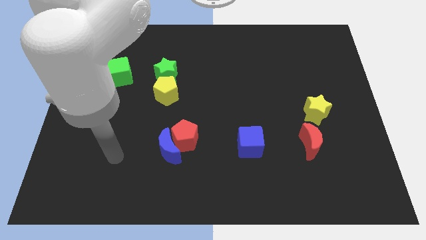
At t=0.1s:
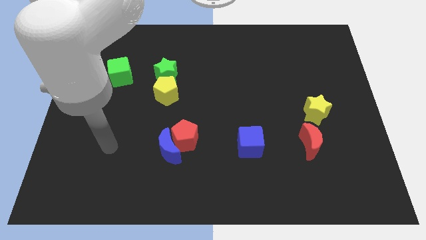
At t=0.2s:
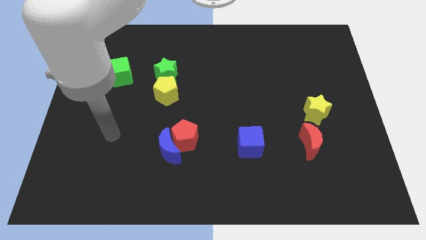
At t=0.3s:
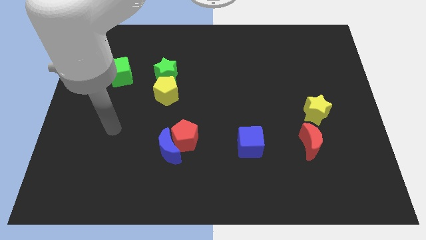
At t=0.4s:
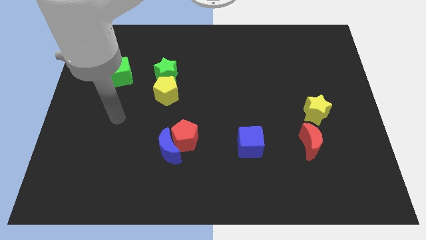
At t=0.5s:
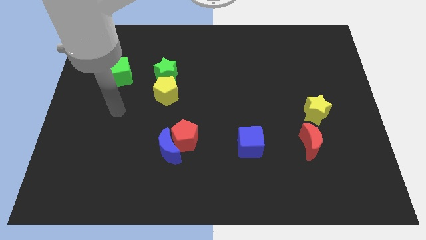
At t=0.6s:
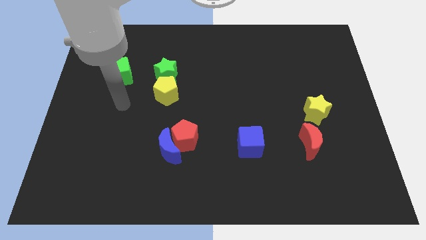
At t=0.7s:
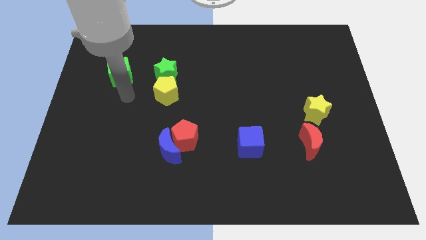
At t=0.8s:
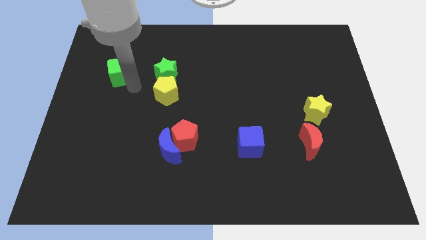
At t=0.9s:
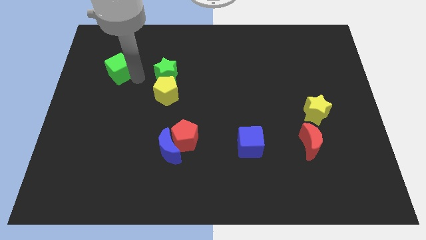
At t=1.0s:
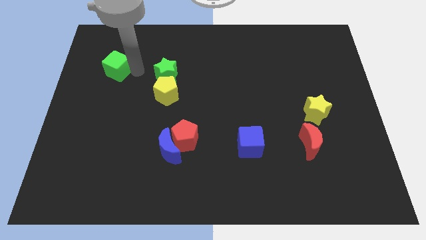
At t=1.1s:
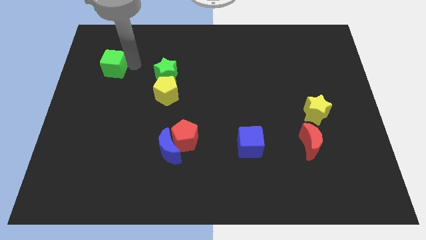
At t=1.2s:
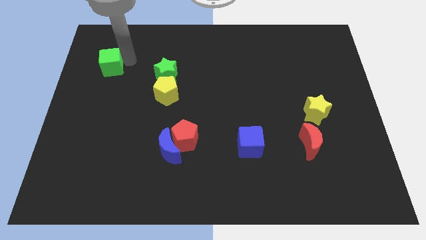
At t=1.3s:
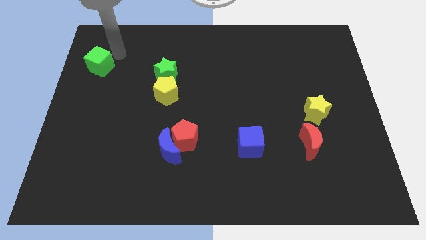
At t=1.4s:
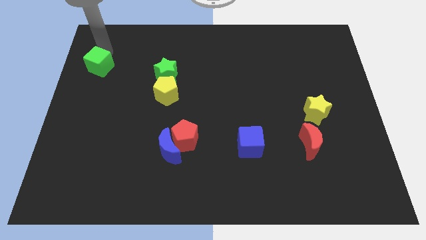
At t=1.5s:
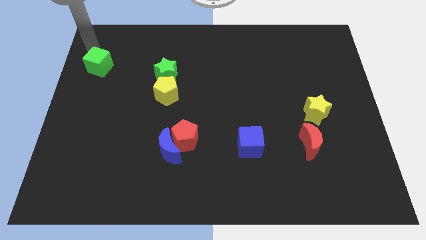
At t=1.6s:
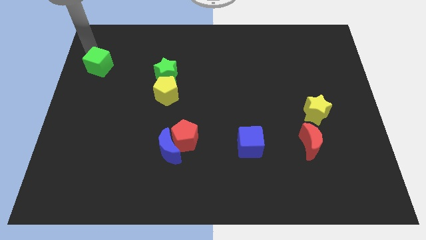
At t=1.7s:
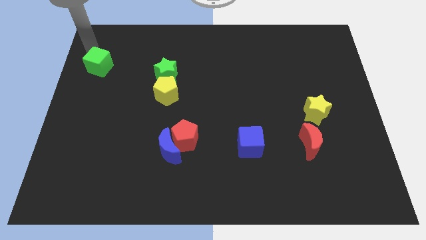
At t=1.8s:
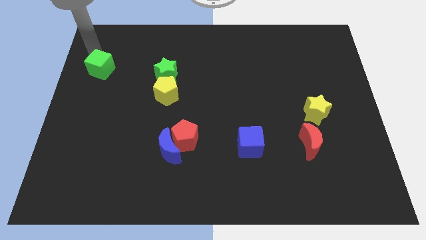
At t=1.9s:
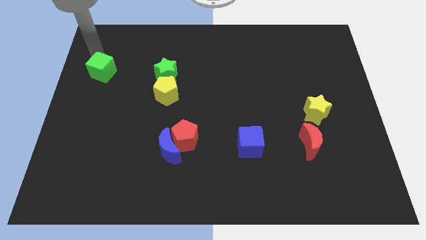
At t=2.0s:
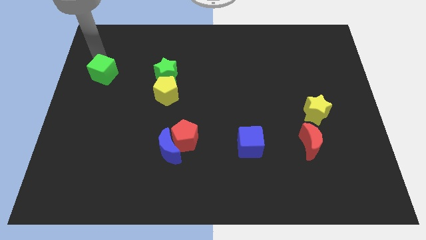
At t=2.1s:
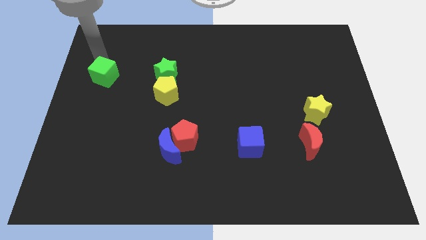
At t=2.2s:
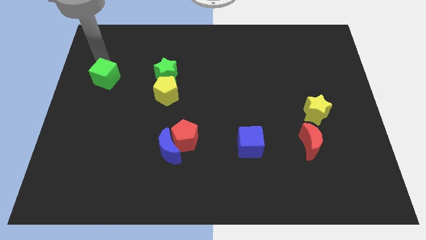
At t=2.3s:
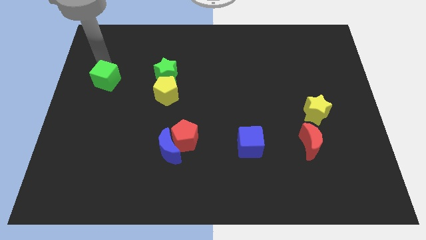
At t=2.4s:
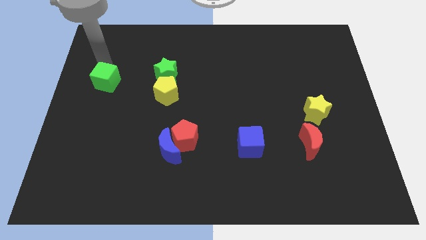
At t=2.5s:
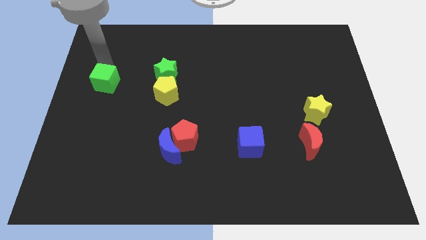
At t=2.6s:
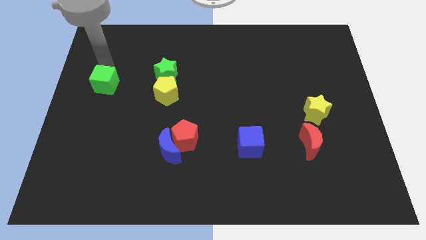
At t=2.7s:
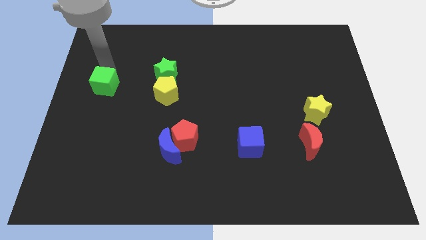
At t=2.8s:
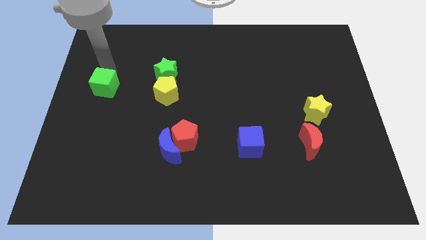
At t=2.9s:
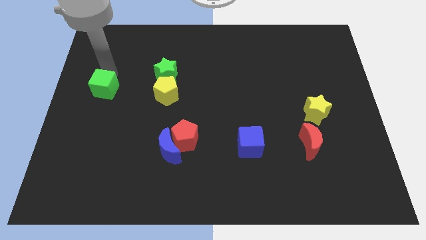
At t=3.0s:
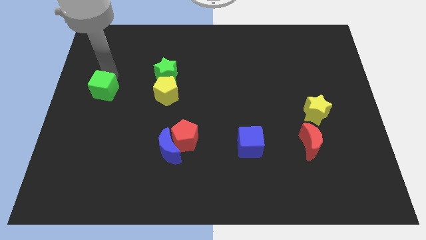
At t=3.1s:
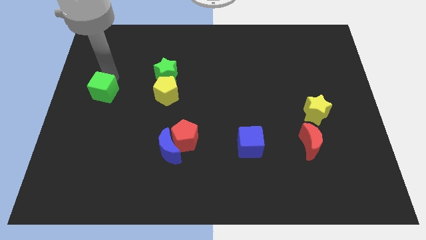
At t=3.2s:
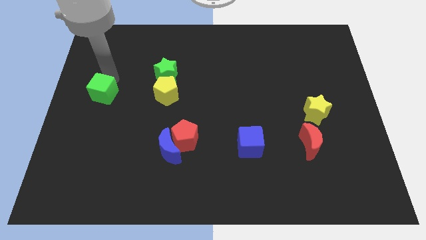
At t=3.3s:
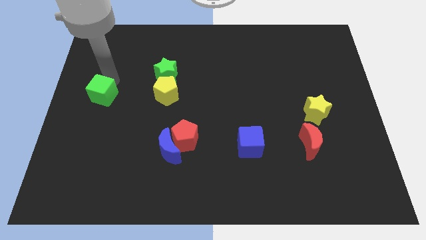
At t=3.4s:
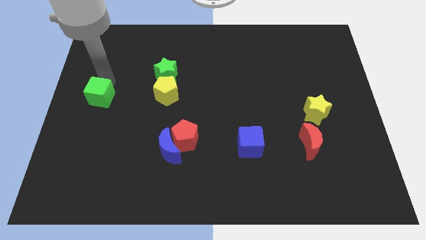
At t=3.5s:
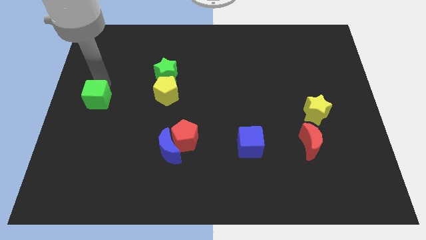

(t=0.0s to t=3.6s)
push the green cube a little bit down

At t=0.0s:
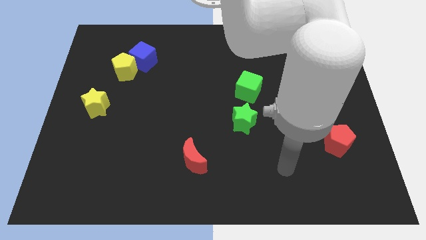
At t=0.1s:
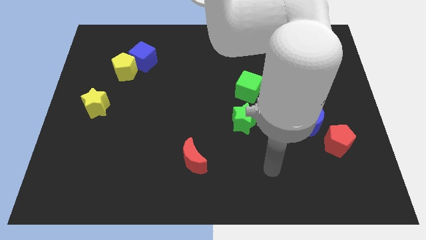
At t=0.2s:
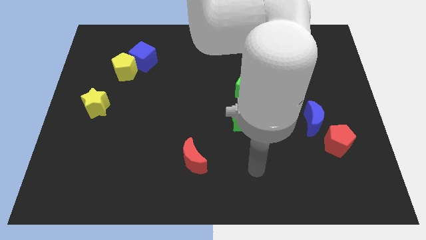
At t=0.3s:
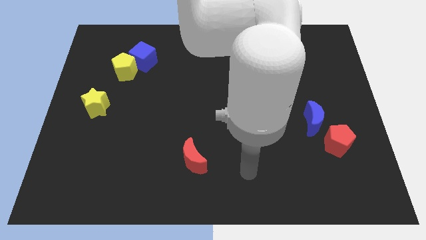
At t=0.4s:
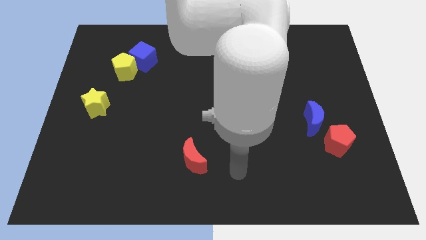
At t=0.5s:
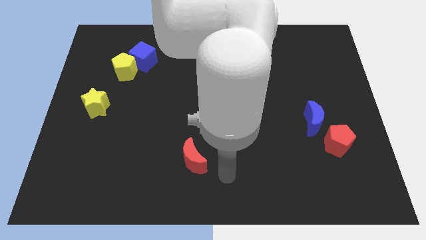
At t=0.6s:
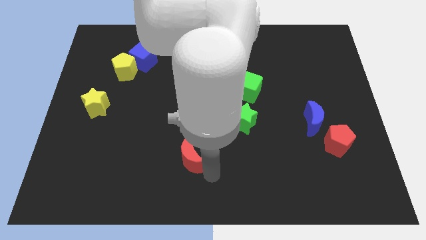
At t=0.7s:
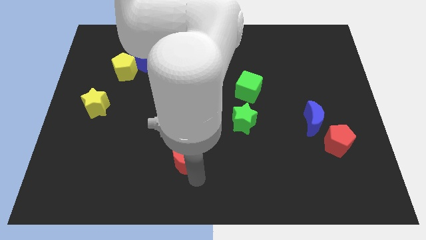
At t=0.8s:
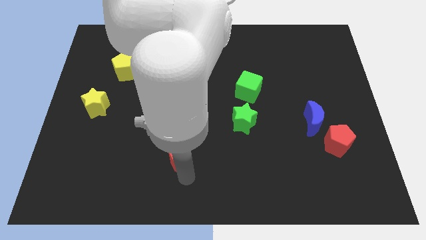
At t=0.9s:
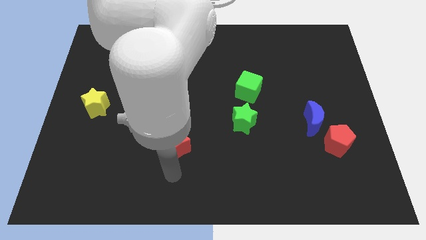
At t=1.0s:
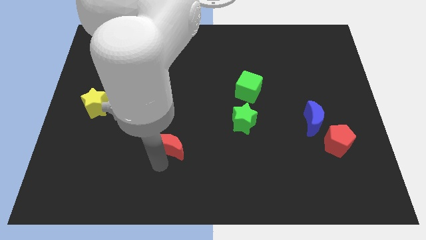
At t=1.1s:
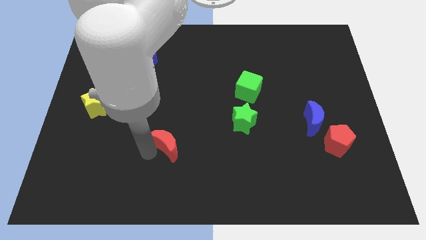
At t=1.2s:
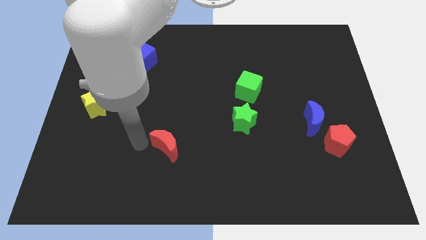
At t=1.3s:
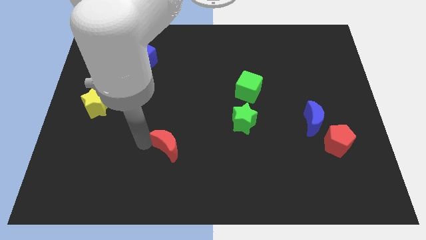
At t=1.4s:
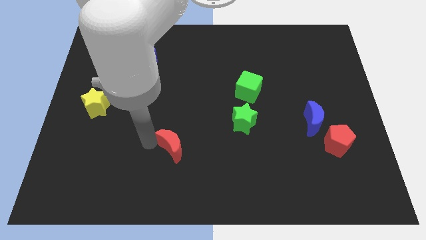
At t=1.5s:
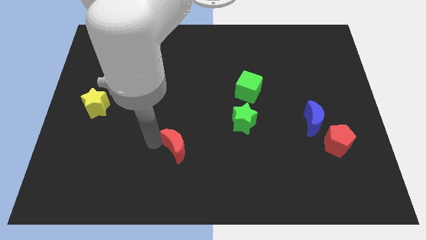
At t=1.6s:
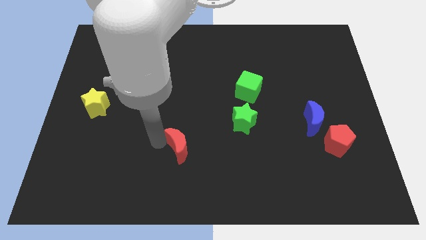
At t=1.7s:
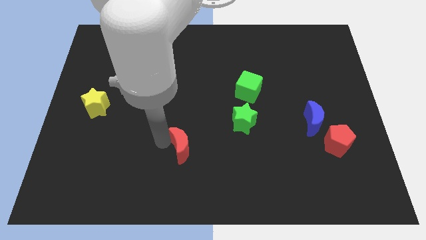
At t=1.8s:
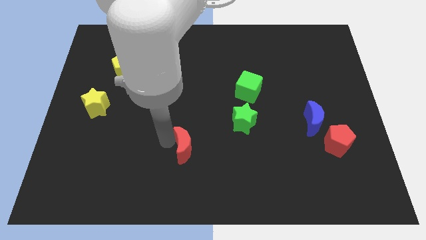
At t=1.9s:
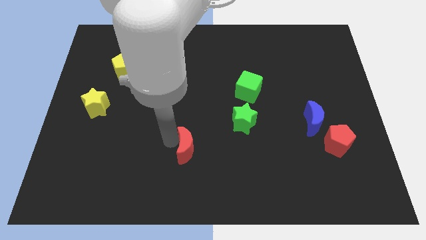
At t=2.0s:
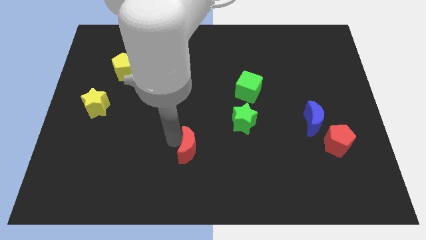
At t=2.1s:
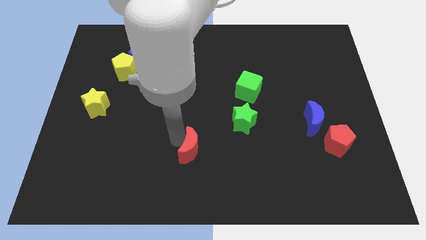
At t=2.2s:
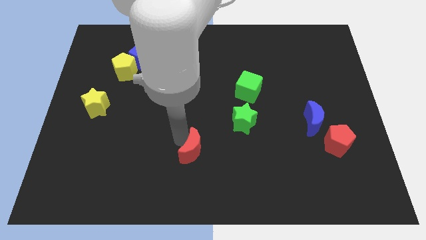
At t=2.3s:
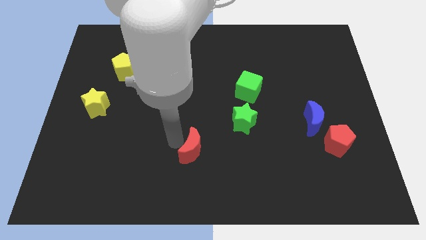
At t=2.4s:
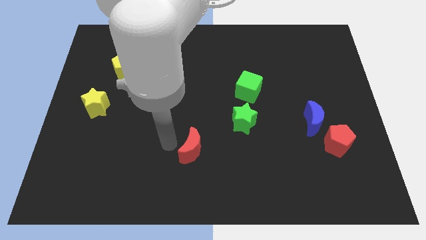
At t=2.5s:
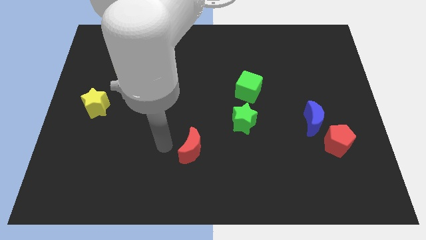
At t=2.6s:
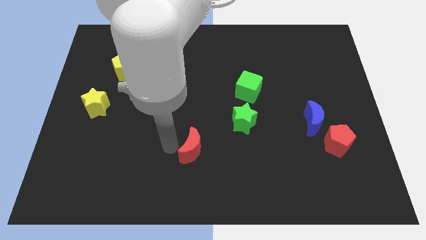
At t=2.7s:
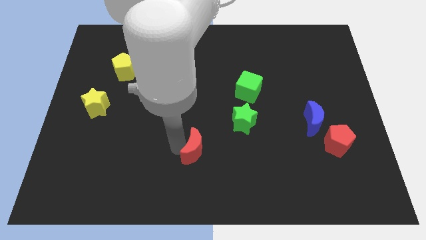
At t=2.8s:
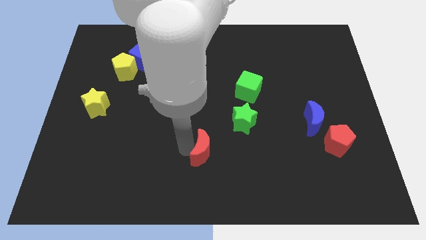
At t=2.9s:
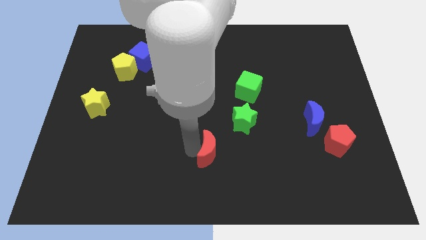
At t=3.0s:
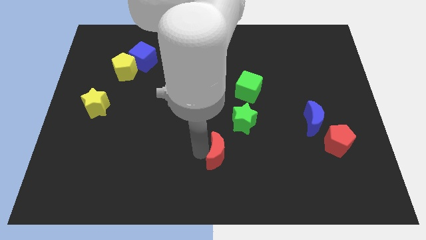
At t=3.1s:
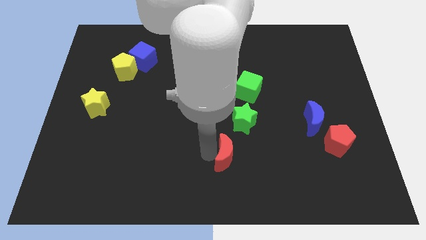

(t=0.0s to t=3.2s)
slide the red moon somewhat right

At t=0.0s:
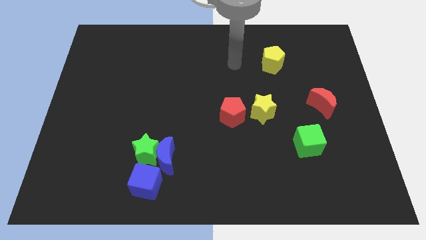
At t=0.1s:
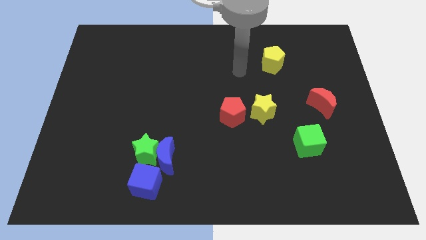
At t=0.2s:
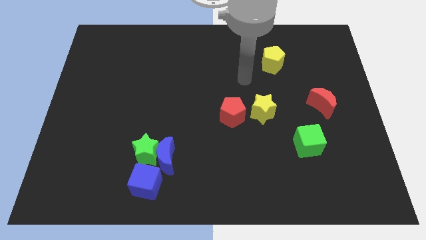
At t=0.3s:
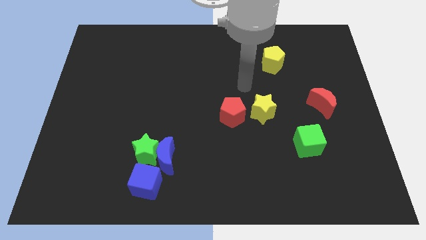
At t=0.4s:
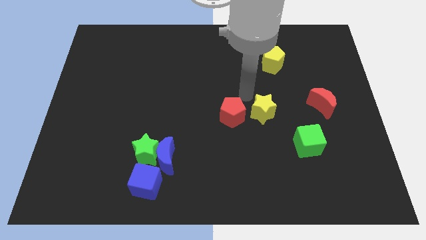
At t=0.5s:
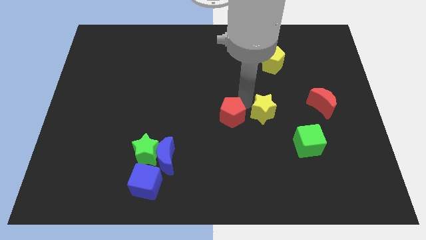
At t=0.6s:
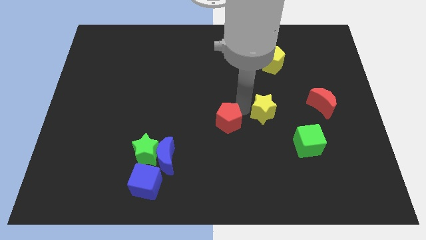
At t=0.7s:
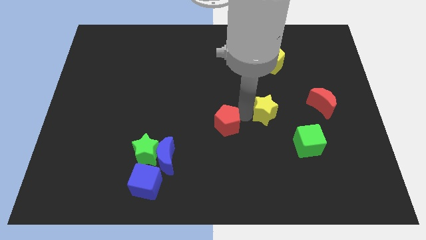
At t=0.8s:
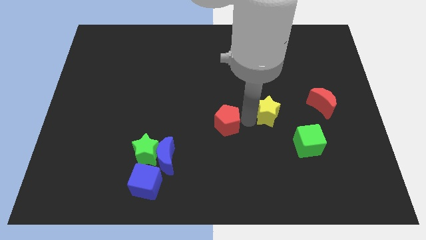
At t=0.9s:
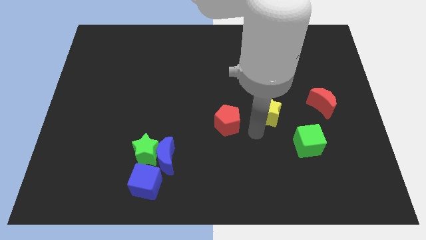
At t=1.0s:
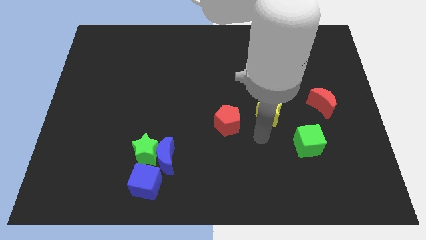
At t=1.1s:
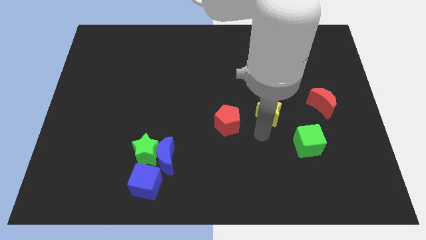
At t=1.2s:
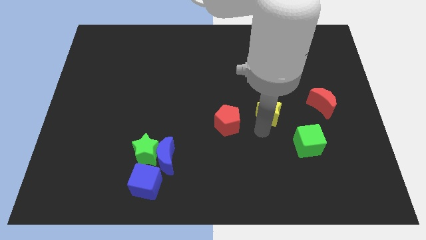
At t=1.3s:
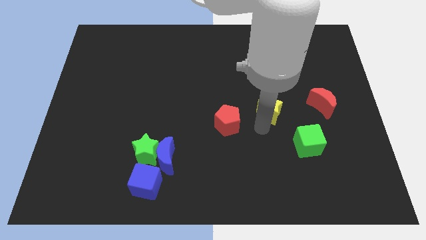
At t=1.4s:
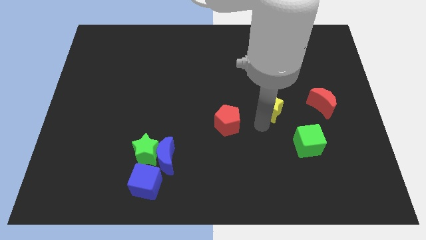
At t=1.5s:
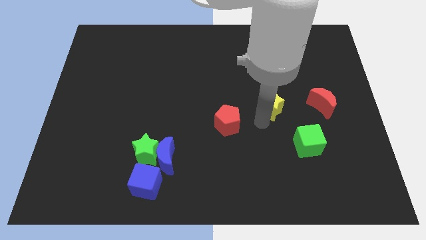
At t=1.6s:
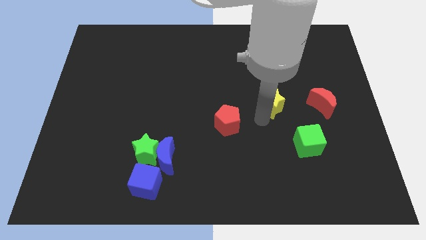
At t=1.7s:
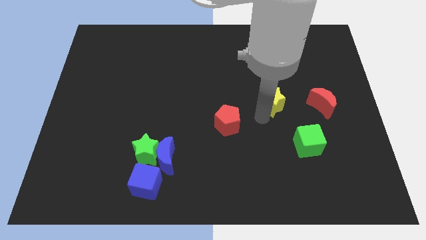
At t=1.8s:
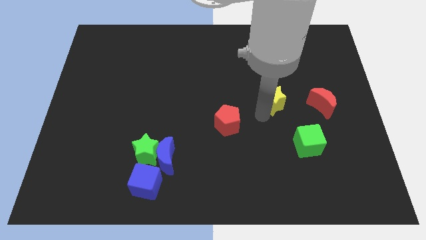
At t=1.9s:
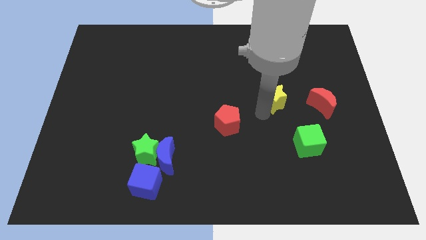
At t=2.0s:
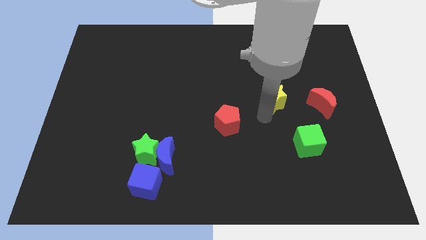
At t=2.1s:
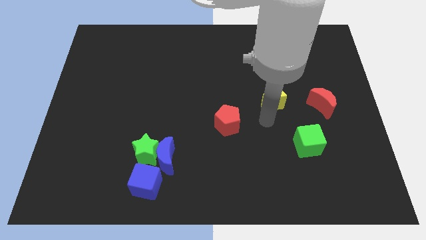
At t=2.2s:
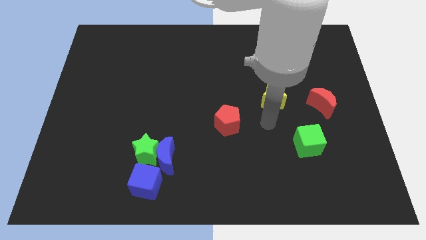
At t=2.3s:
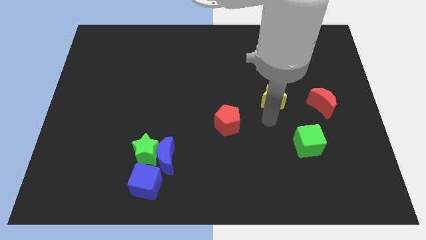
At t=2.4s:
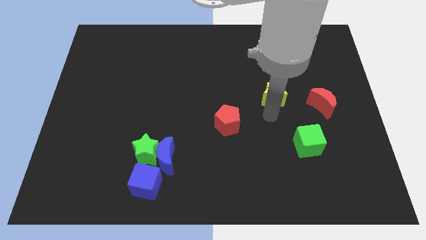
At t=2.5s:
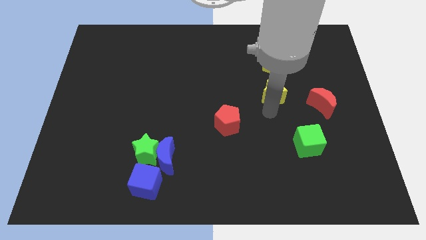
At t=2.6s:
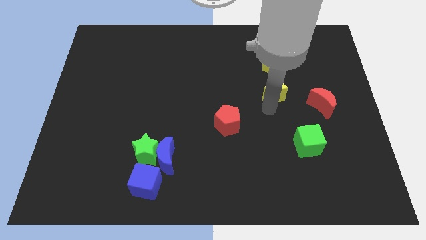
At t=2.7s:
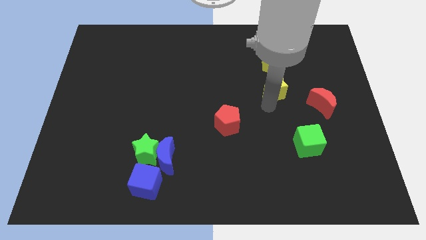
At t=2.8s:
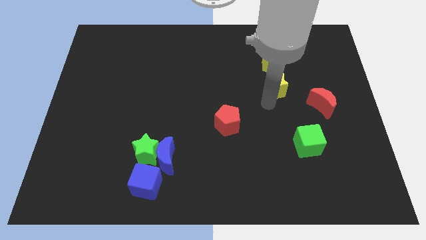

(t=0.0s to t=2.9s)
slightly push the yellow star diagonally upwards and right
